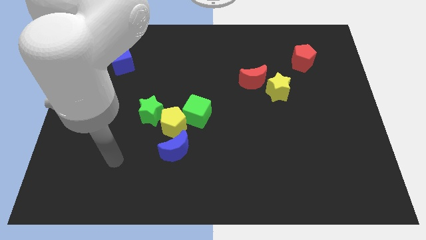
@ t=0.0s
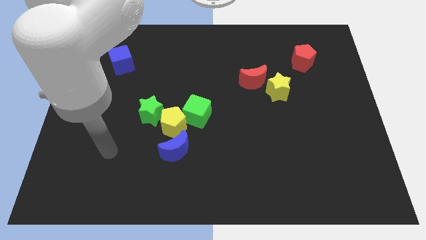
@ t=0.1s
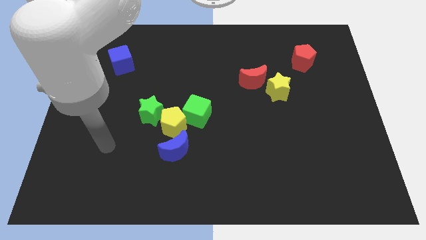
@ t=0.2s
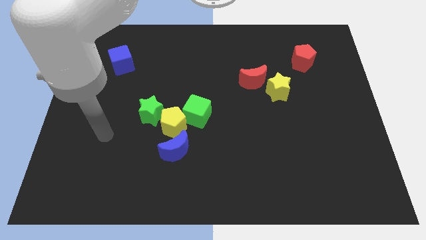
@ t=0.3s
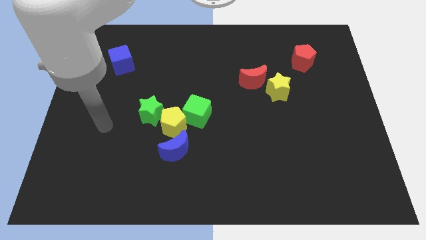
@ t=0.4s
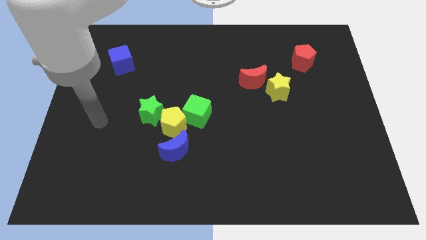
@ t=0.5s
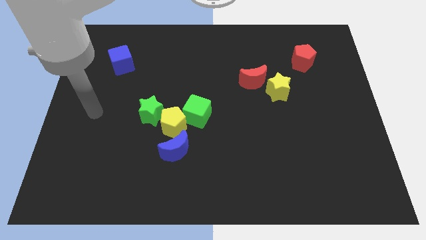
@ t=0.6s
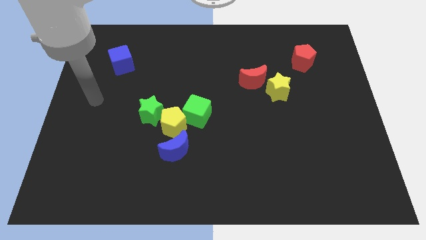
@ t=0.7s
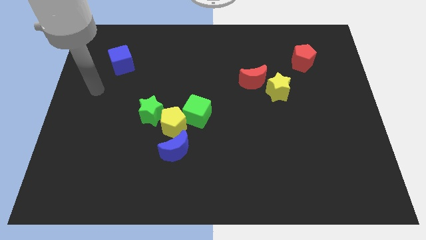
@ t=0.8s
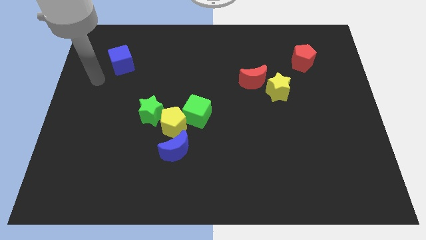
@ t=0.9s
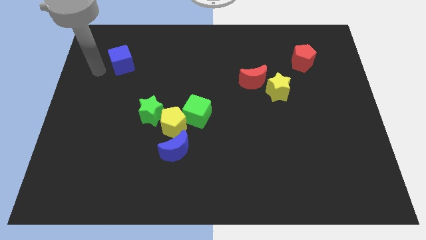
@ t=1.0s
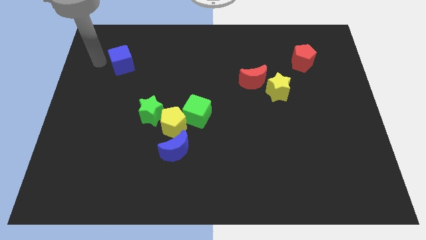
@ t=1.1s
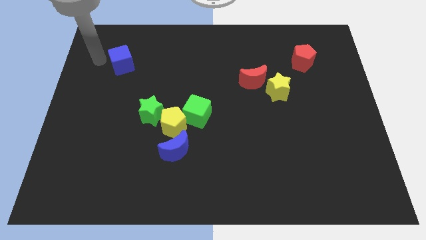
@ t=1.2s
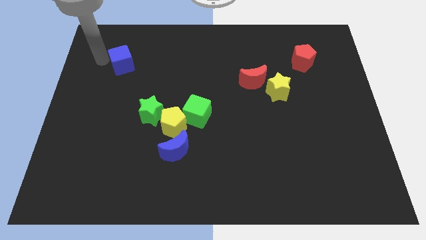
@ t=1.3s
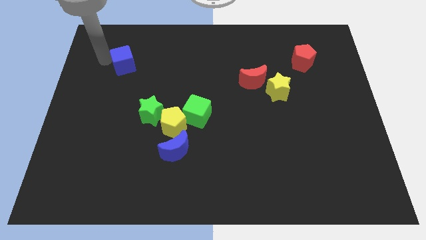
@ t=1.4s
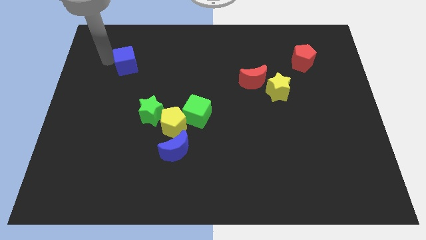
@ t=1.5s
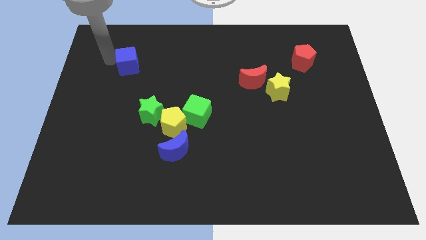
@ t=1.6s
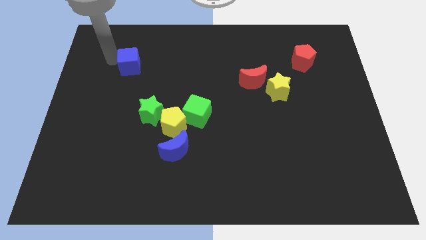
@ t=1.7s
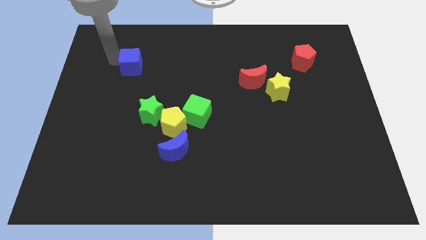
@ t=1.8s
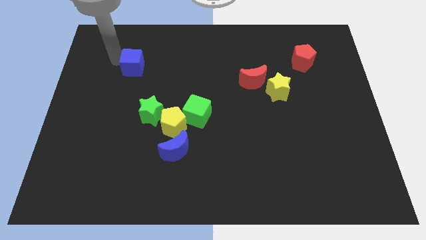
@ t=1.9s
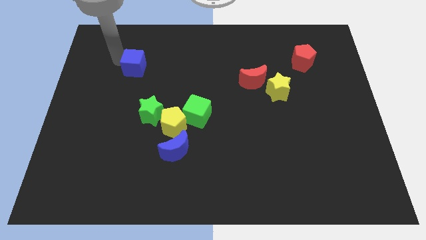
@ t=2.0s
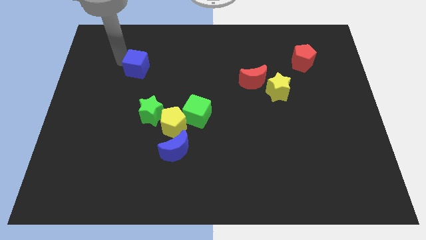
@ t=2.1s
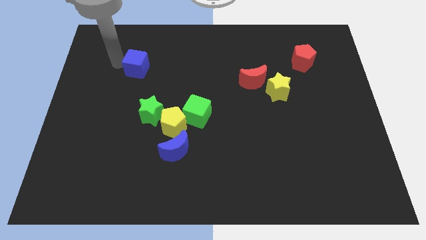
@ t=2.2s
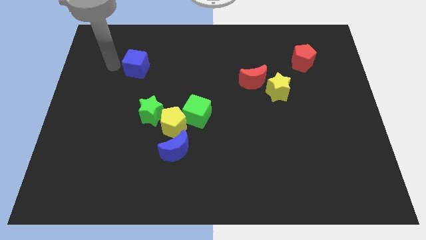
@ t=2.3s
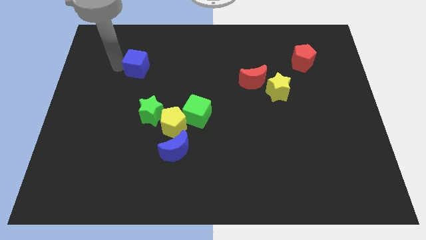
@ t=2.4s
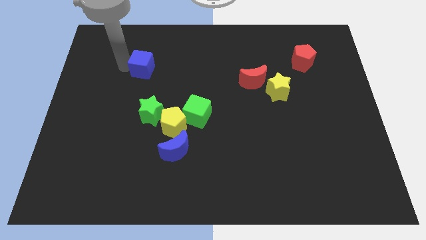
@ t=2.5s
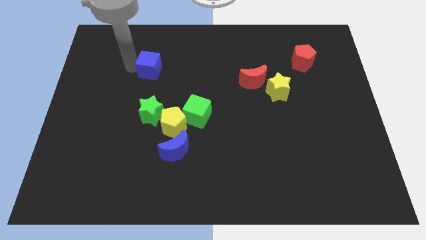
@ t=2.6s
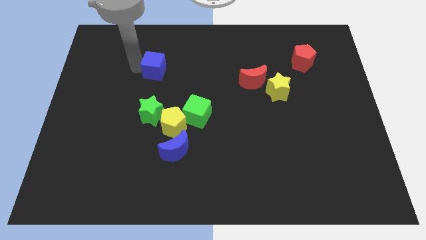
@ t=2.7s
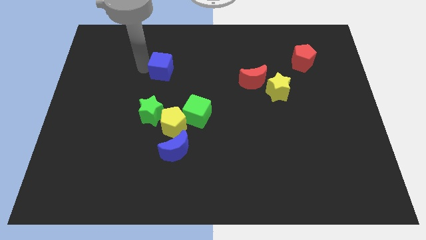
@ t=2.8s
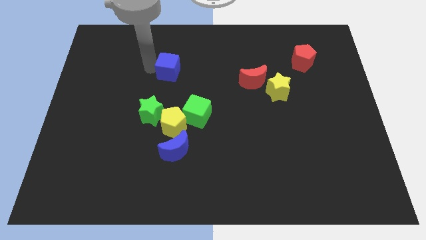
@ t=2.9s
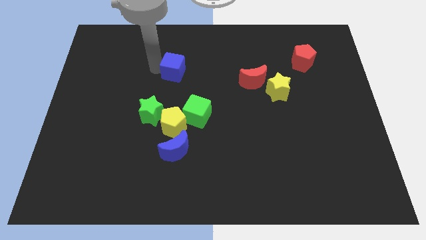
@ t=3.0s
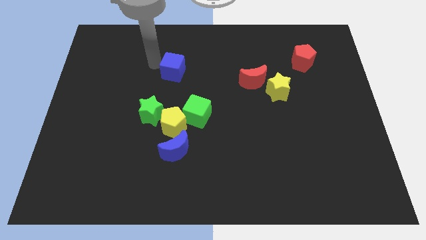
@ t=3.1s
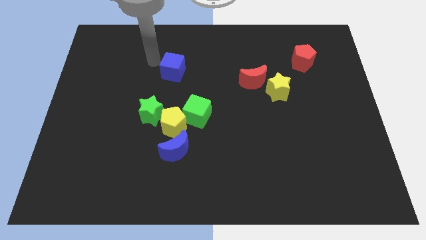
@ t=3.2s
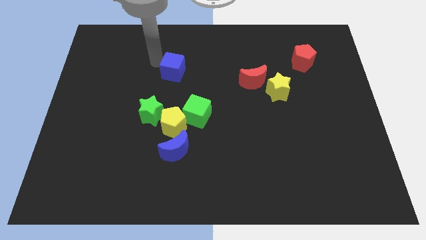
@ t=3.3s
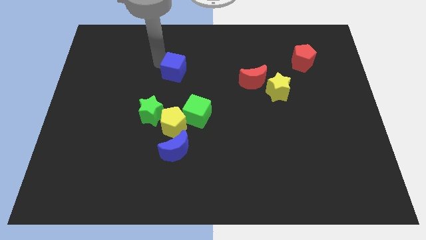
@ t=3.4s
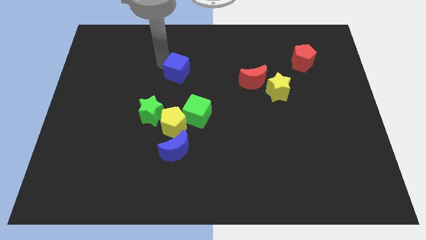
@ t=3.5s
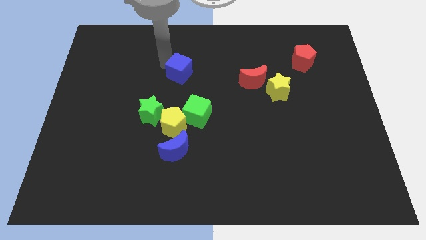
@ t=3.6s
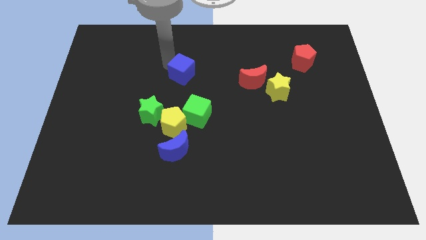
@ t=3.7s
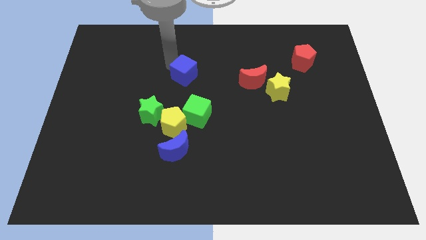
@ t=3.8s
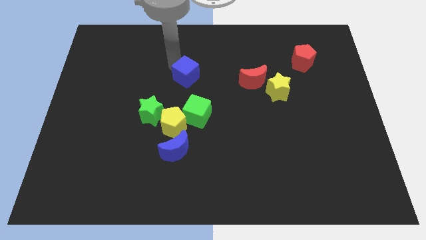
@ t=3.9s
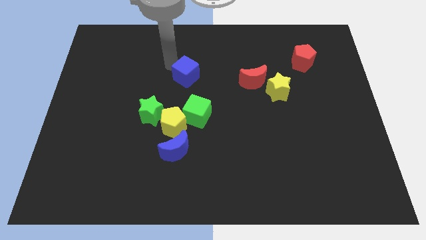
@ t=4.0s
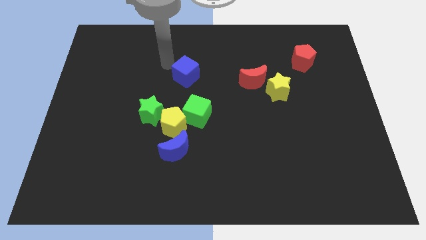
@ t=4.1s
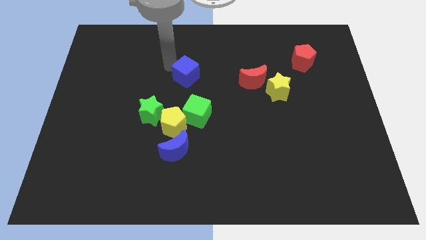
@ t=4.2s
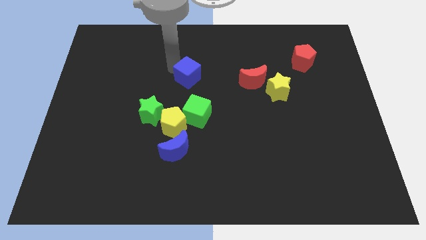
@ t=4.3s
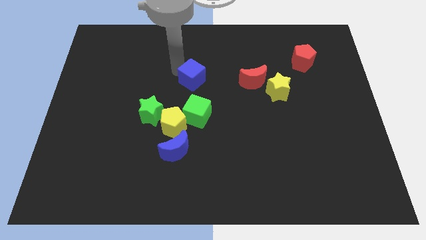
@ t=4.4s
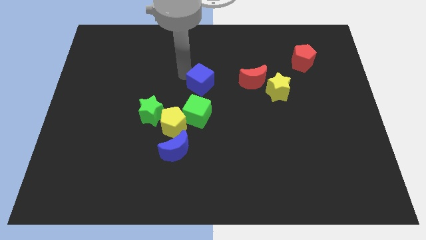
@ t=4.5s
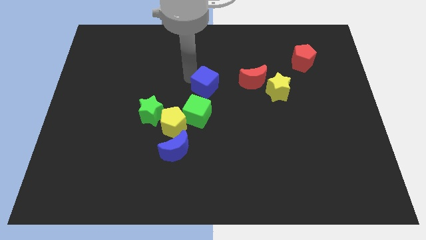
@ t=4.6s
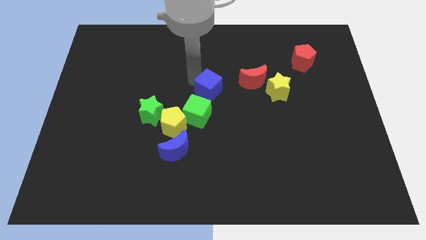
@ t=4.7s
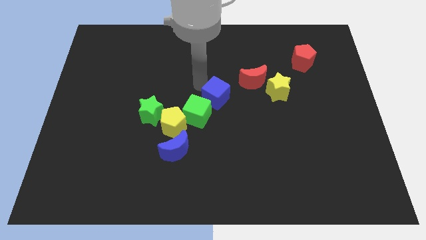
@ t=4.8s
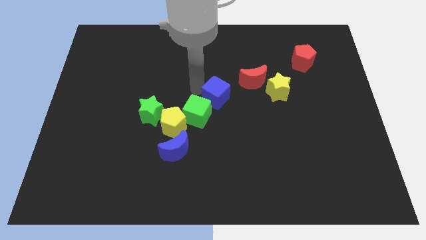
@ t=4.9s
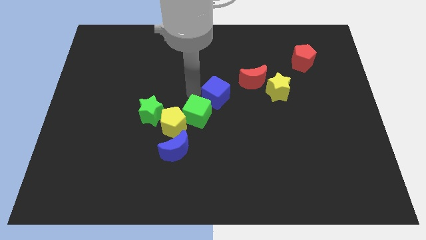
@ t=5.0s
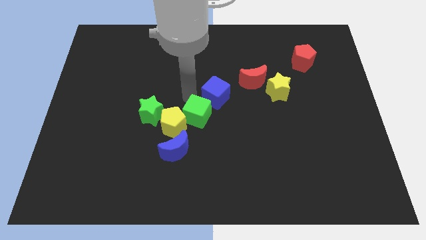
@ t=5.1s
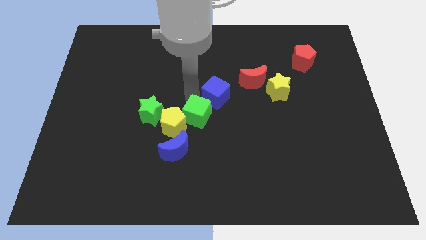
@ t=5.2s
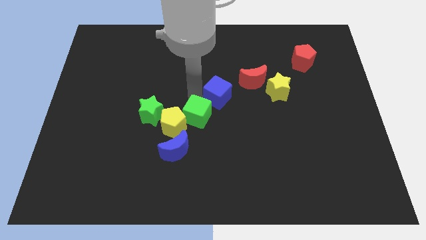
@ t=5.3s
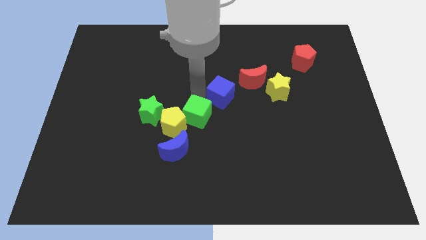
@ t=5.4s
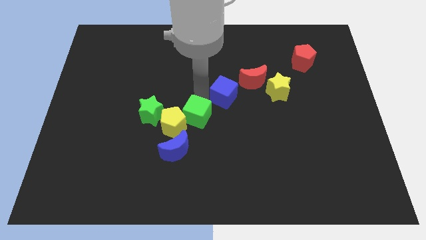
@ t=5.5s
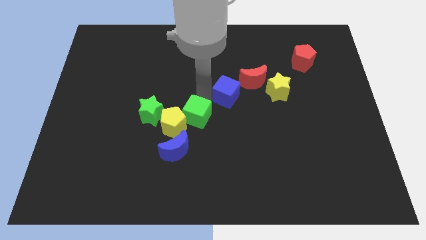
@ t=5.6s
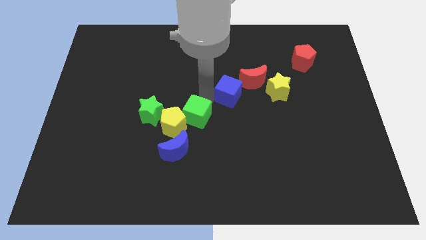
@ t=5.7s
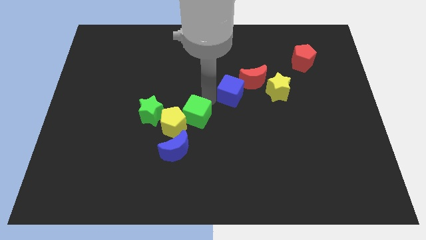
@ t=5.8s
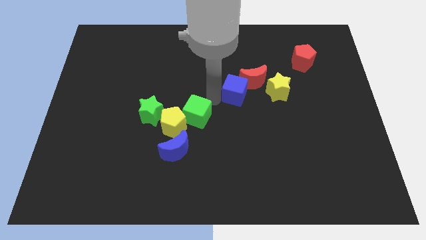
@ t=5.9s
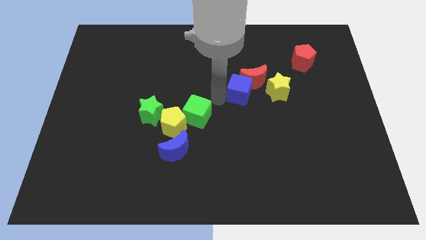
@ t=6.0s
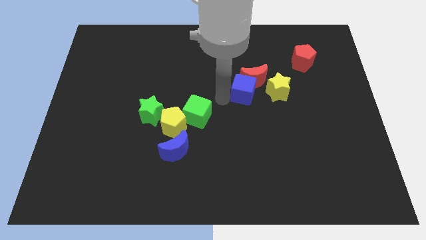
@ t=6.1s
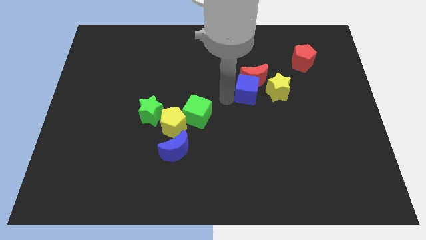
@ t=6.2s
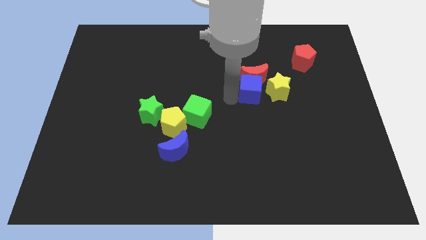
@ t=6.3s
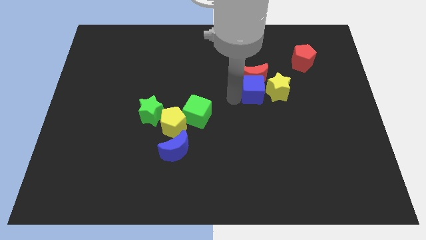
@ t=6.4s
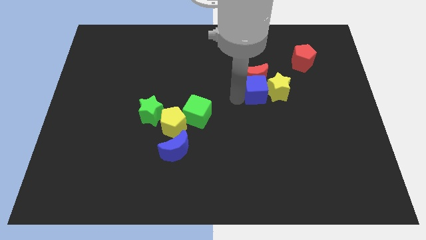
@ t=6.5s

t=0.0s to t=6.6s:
push the blue cube next to the yellow star

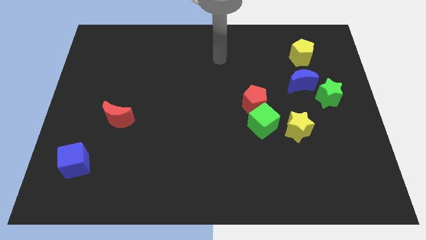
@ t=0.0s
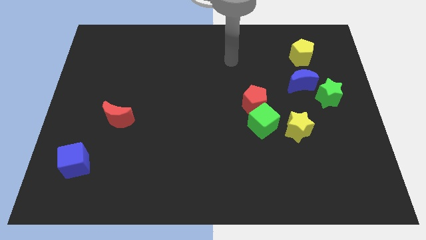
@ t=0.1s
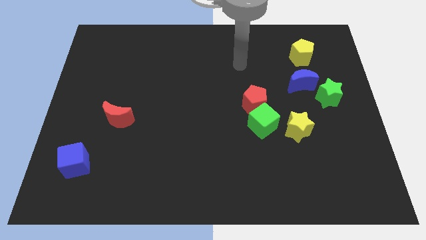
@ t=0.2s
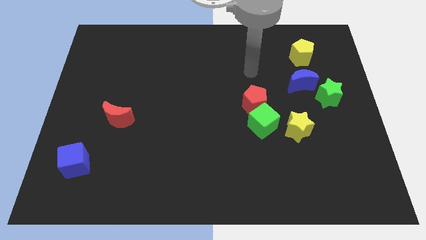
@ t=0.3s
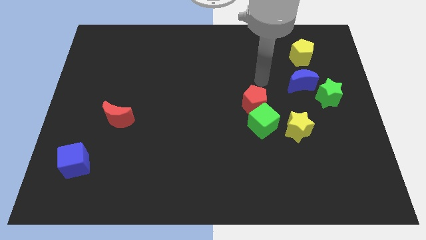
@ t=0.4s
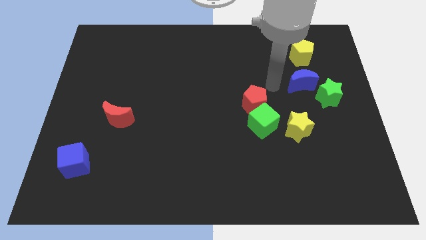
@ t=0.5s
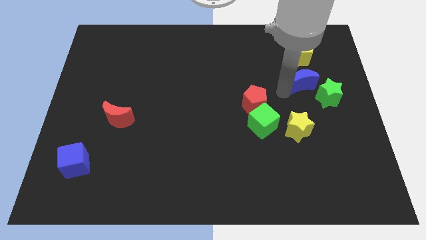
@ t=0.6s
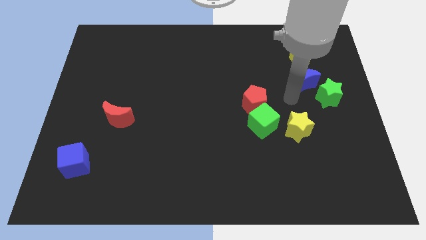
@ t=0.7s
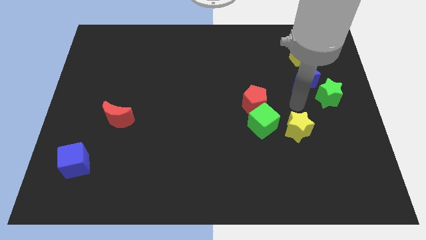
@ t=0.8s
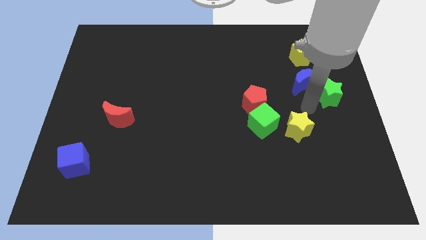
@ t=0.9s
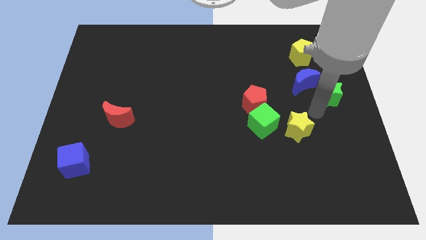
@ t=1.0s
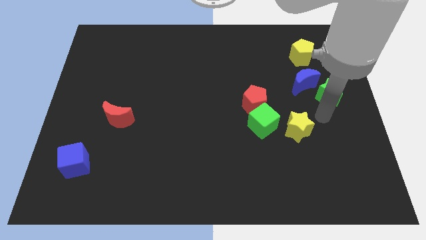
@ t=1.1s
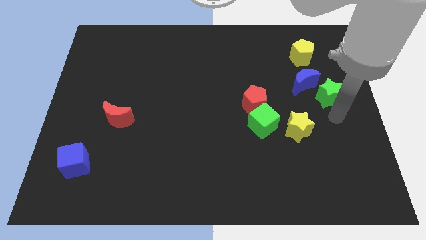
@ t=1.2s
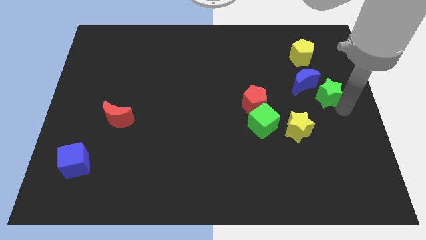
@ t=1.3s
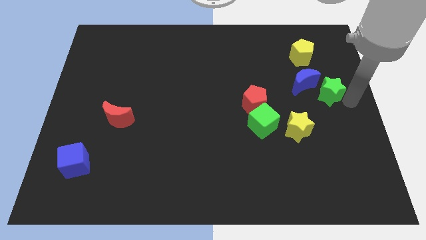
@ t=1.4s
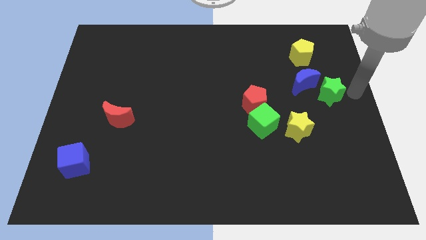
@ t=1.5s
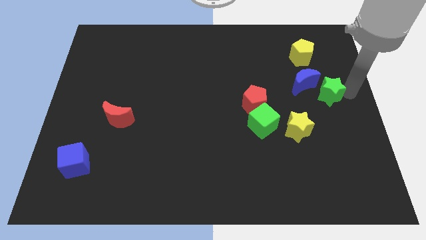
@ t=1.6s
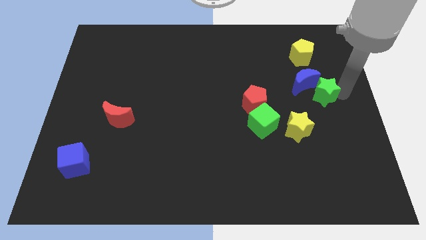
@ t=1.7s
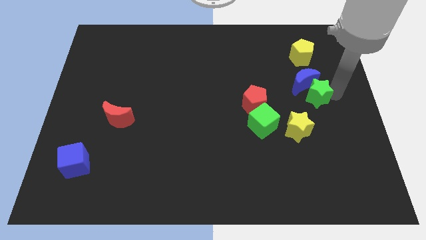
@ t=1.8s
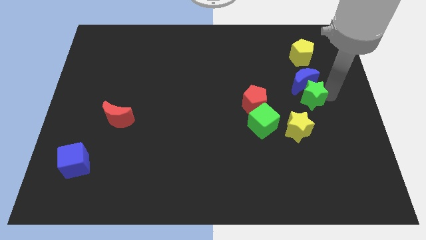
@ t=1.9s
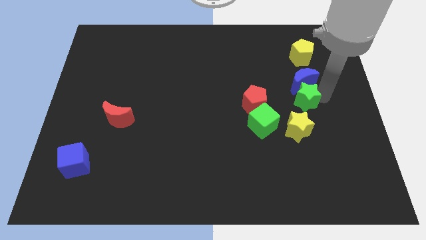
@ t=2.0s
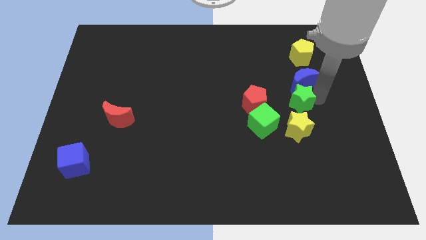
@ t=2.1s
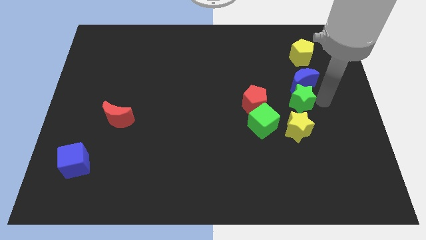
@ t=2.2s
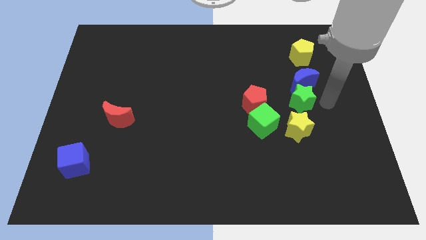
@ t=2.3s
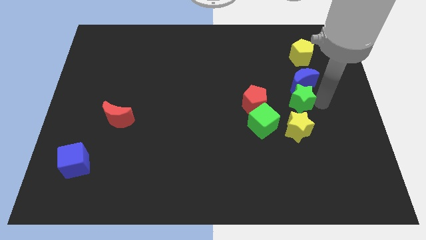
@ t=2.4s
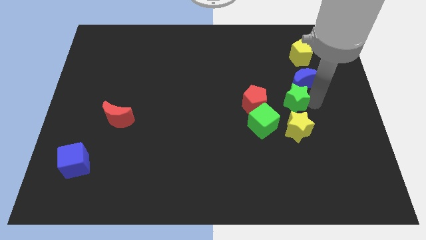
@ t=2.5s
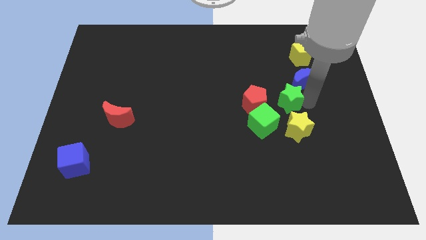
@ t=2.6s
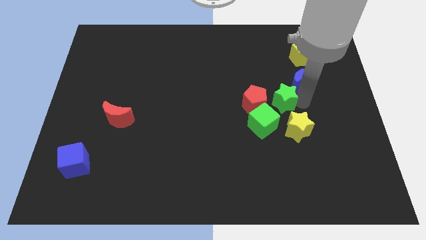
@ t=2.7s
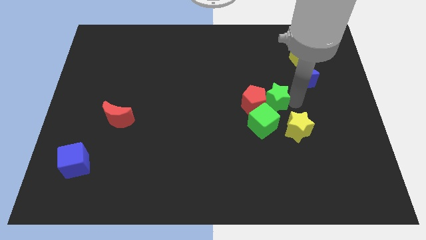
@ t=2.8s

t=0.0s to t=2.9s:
push the green star to the red pentagon
